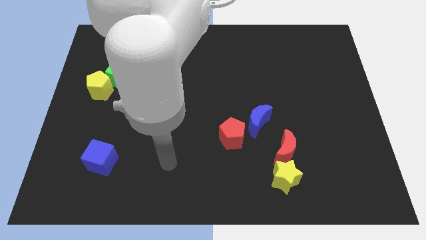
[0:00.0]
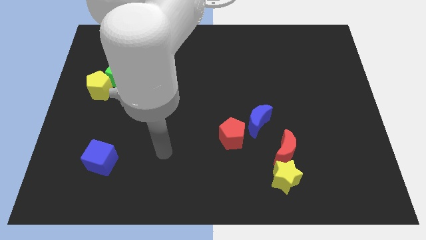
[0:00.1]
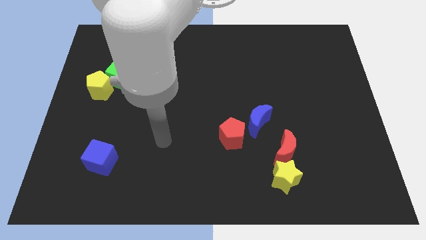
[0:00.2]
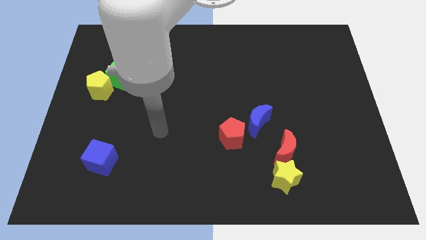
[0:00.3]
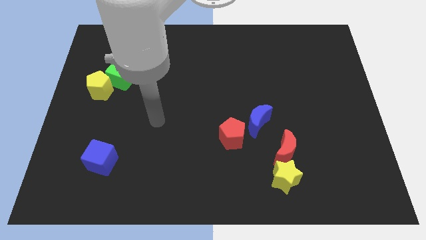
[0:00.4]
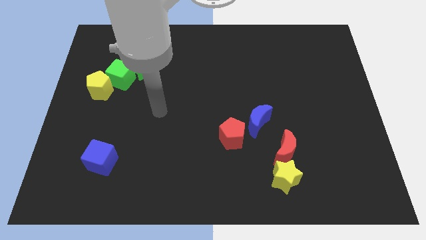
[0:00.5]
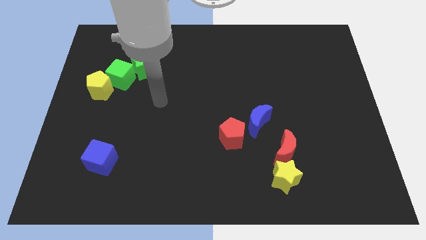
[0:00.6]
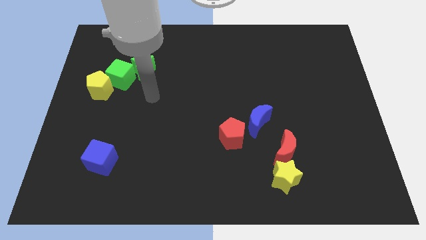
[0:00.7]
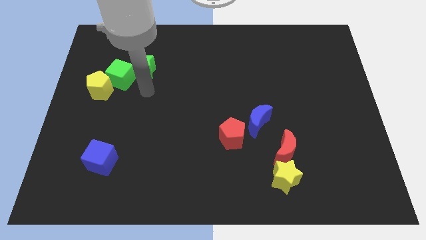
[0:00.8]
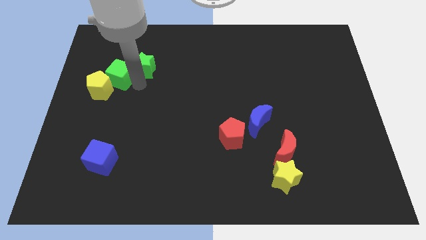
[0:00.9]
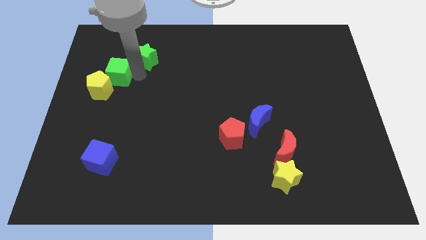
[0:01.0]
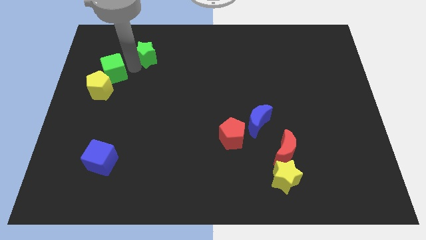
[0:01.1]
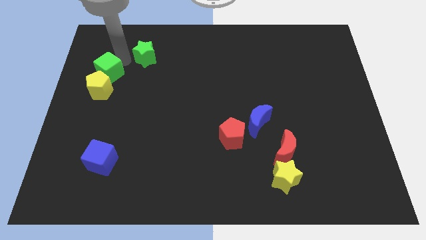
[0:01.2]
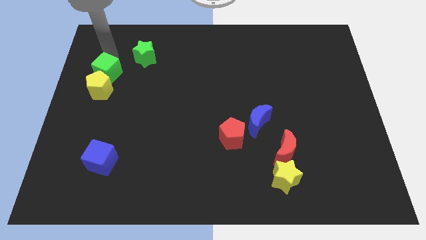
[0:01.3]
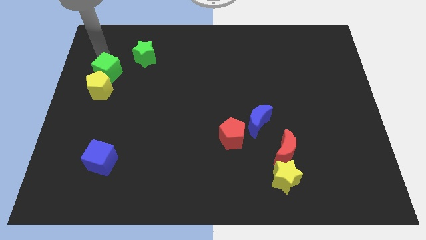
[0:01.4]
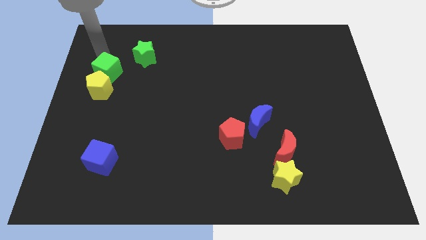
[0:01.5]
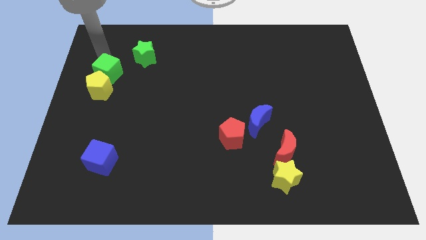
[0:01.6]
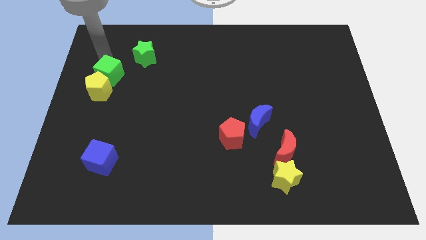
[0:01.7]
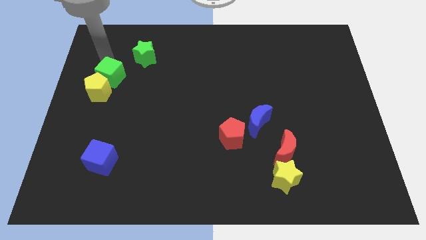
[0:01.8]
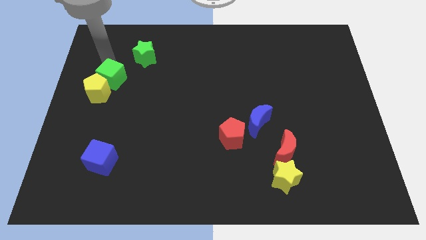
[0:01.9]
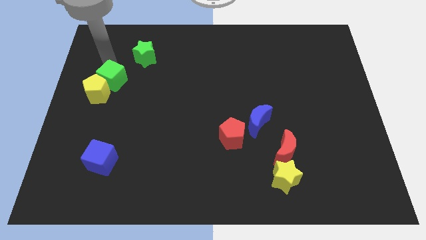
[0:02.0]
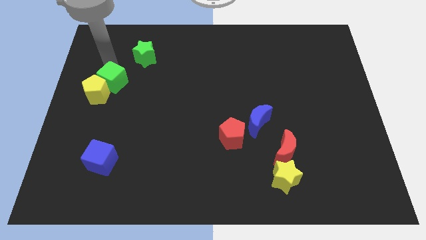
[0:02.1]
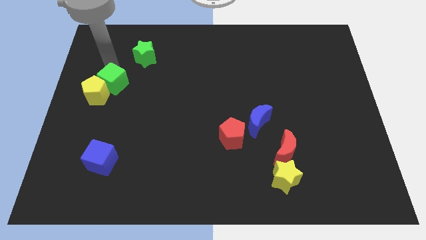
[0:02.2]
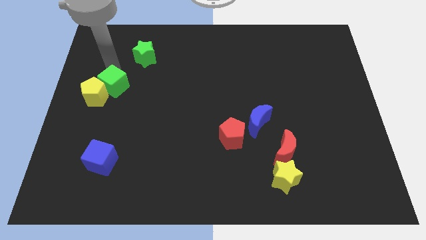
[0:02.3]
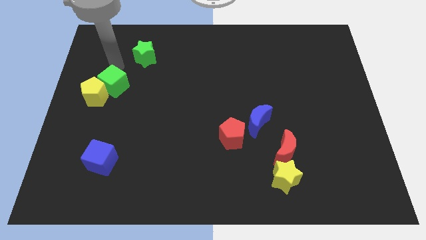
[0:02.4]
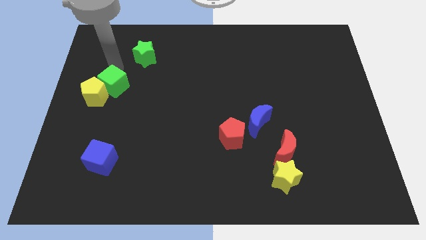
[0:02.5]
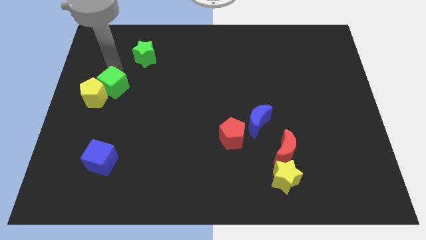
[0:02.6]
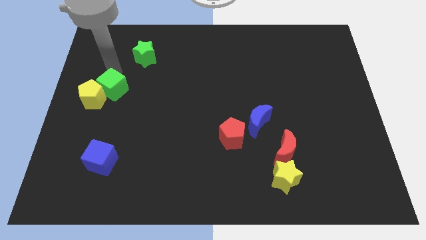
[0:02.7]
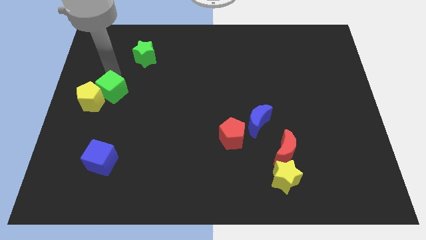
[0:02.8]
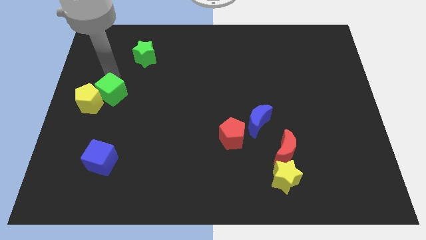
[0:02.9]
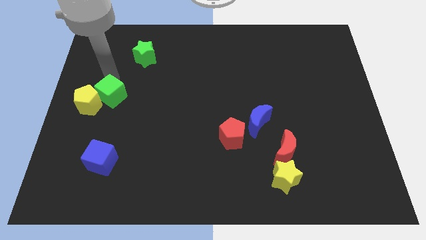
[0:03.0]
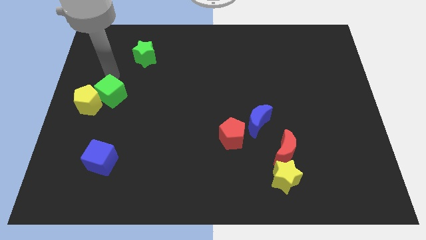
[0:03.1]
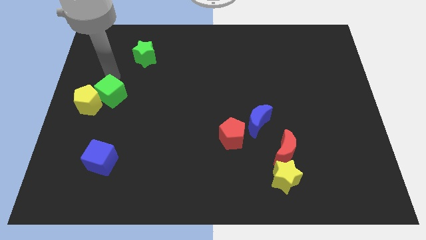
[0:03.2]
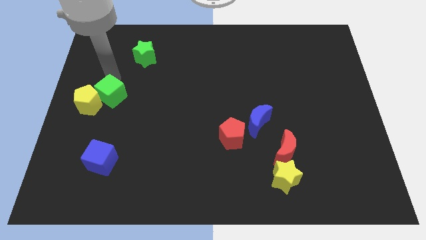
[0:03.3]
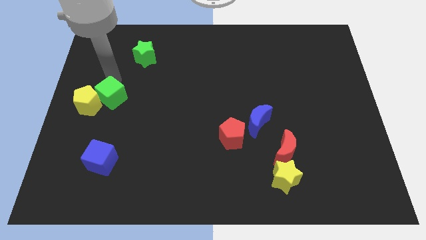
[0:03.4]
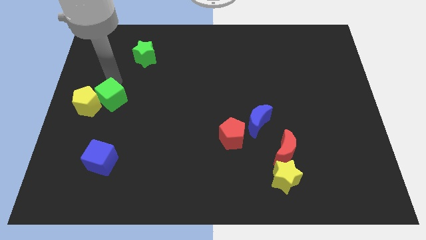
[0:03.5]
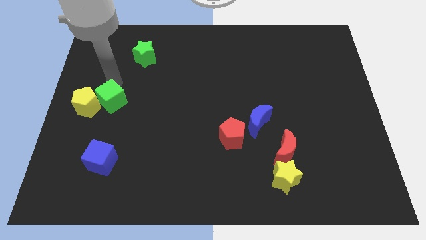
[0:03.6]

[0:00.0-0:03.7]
move the green cube down somewhat

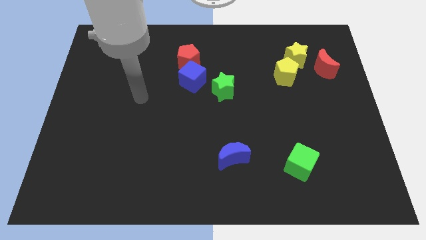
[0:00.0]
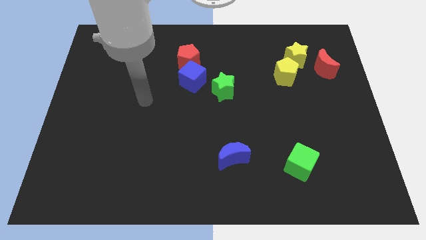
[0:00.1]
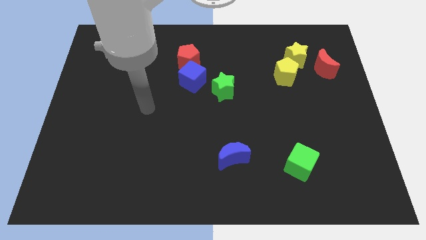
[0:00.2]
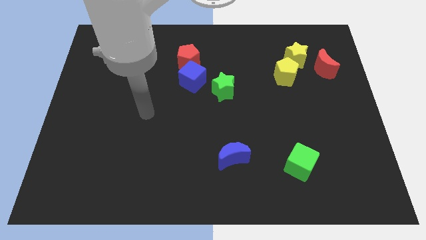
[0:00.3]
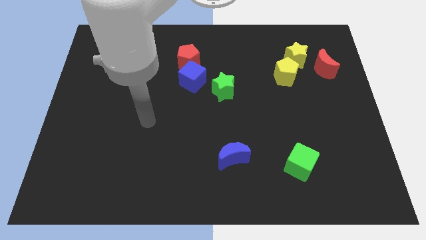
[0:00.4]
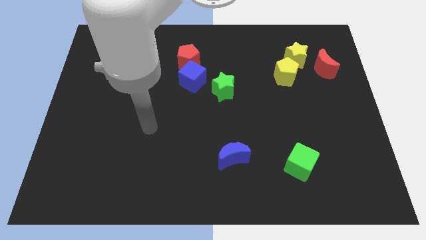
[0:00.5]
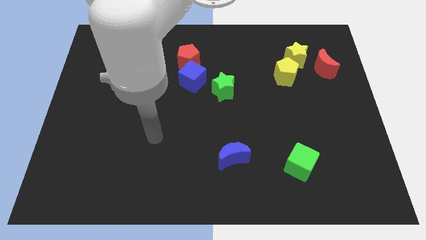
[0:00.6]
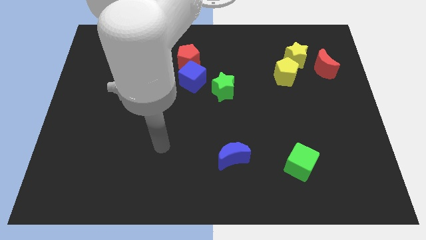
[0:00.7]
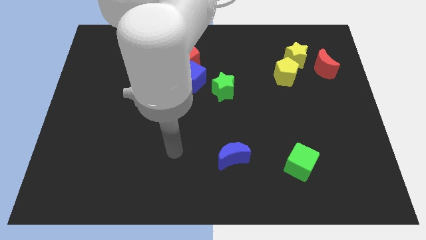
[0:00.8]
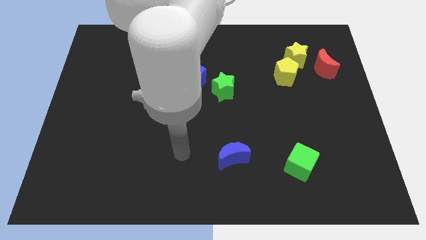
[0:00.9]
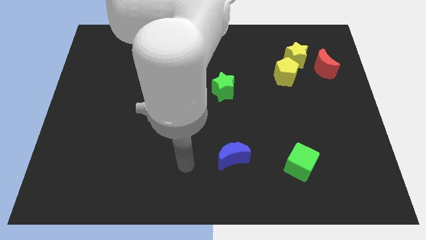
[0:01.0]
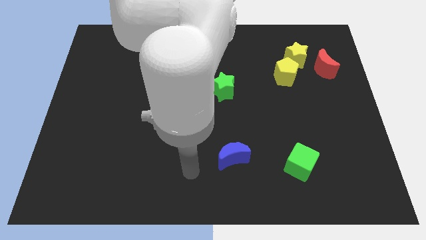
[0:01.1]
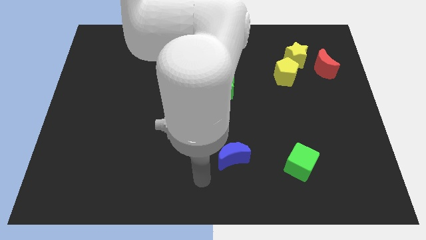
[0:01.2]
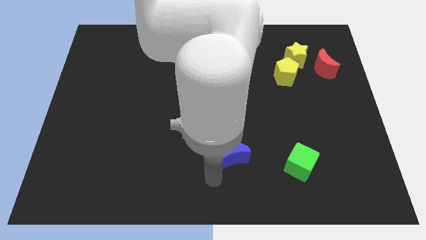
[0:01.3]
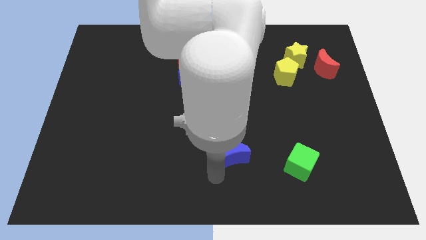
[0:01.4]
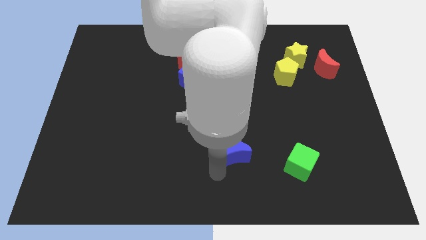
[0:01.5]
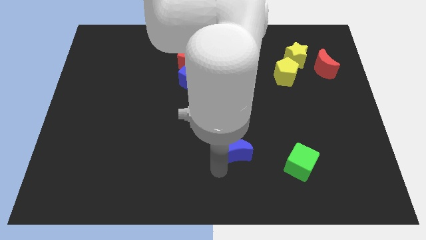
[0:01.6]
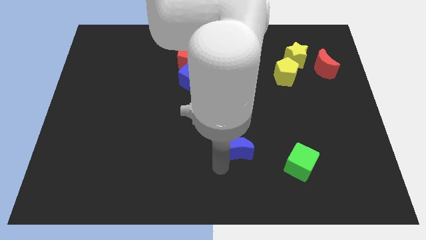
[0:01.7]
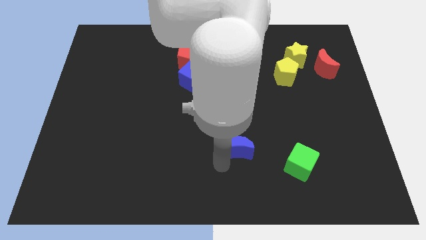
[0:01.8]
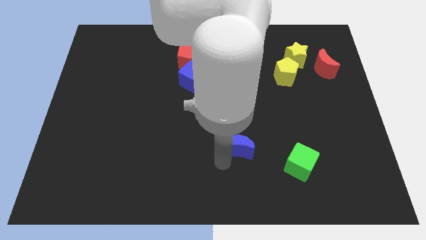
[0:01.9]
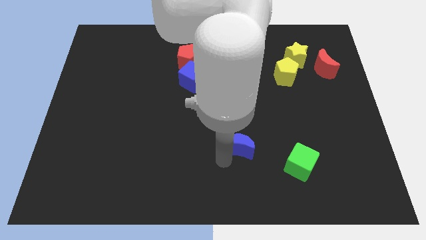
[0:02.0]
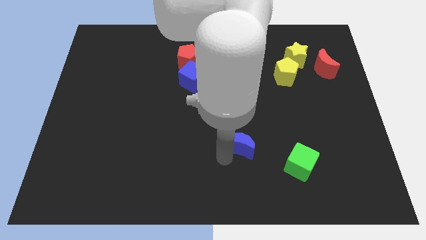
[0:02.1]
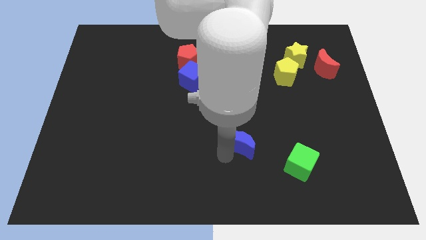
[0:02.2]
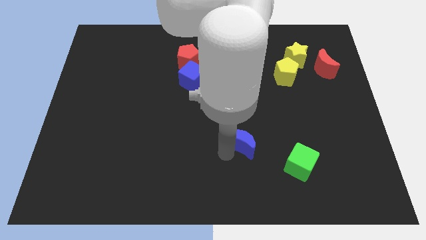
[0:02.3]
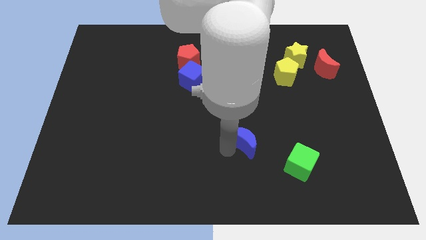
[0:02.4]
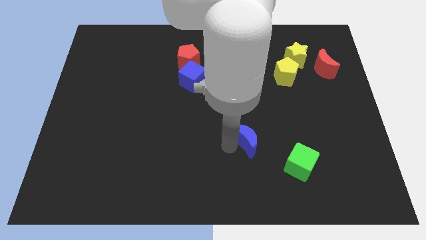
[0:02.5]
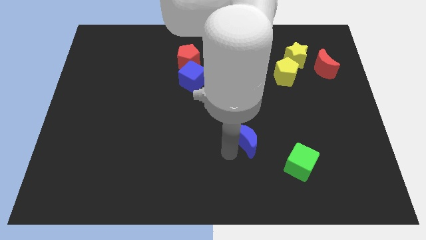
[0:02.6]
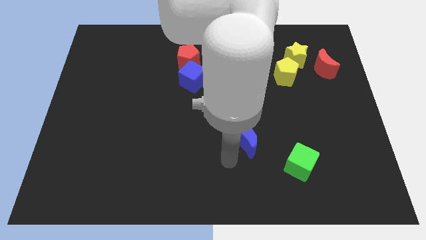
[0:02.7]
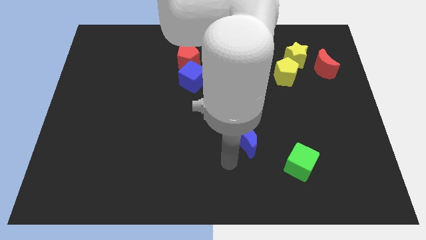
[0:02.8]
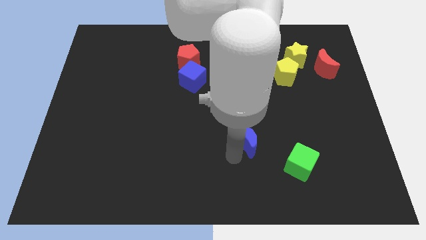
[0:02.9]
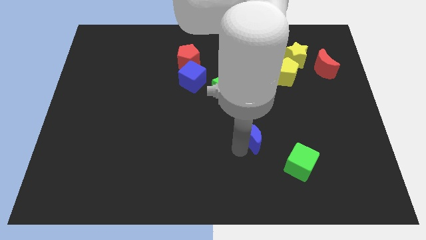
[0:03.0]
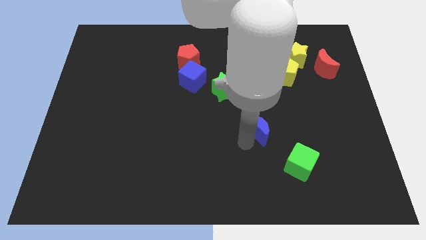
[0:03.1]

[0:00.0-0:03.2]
slightly slide the blue moon up and to the right diagonally

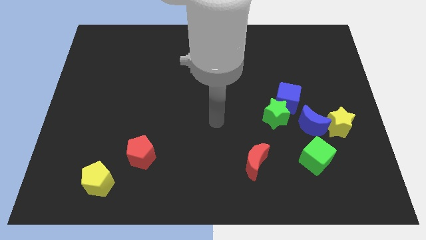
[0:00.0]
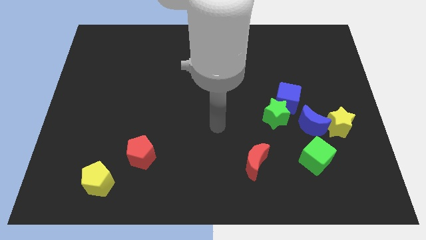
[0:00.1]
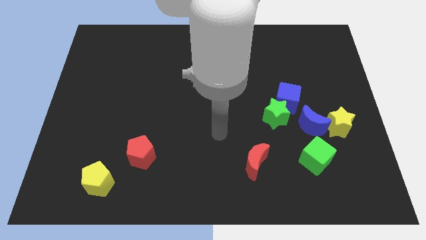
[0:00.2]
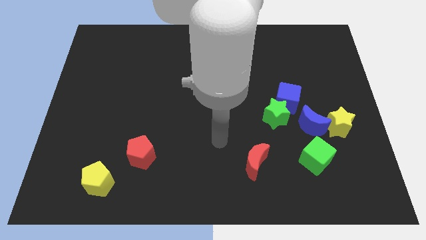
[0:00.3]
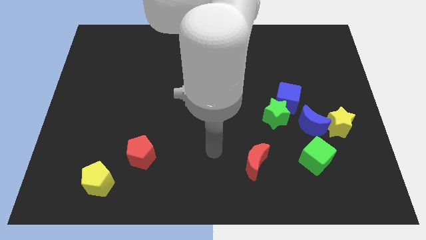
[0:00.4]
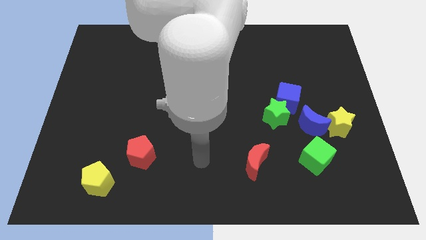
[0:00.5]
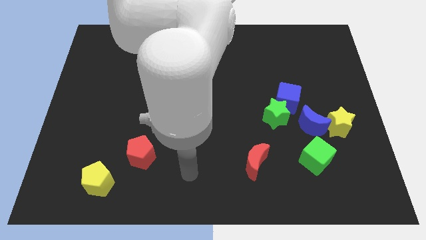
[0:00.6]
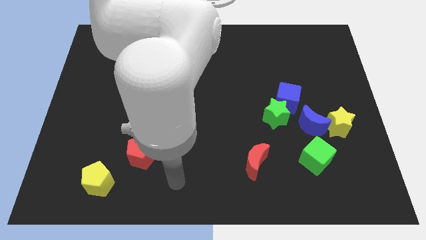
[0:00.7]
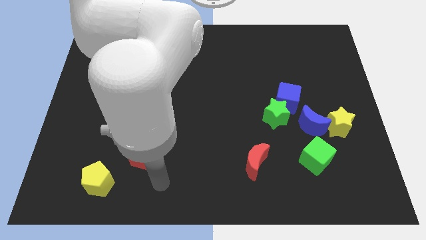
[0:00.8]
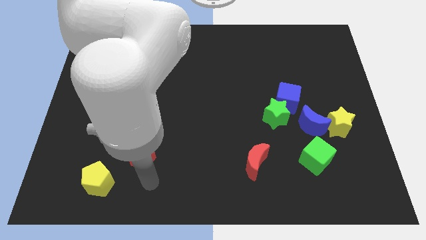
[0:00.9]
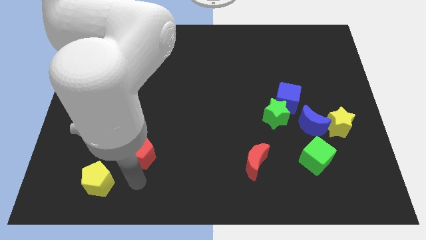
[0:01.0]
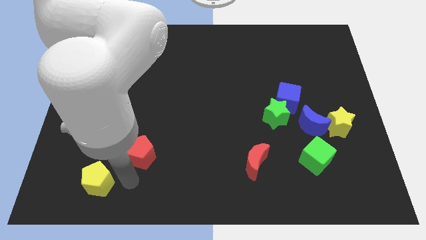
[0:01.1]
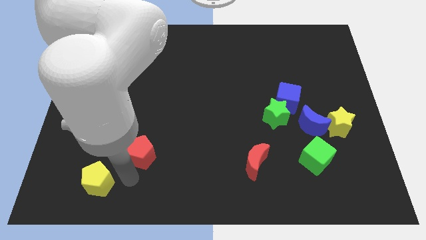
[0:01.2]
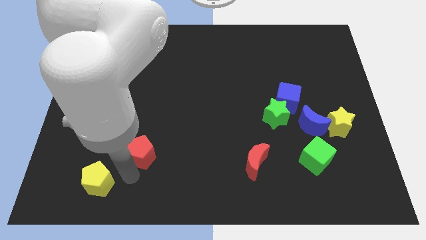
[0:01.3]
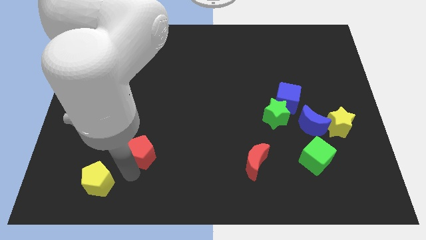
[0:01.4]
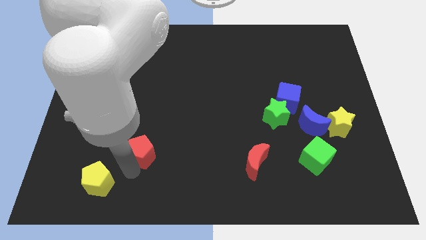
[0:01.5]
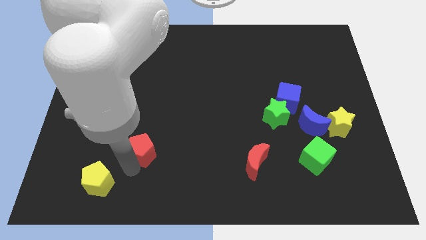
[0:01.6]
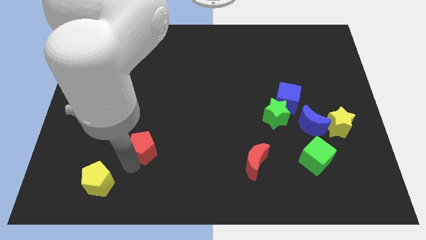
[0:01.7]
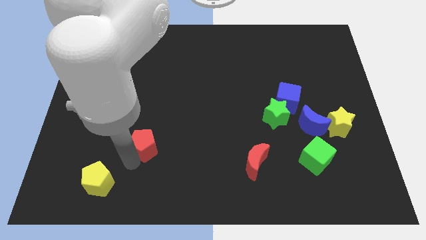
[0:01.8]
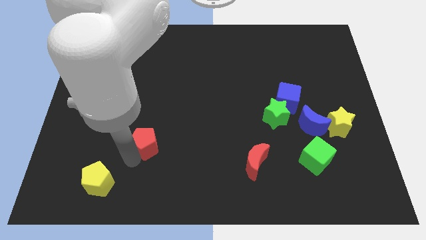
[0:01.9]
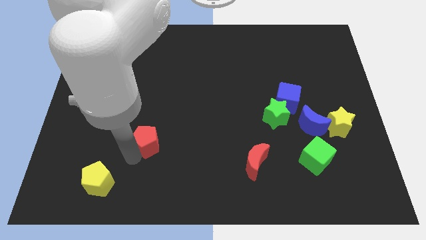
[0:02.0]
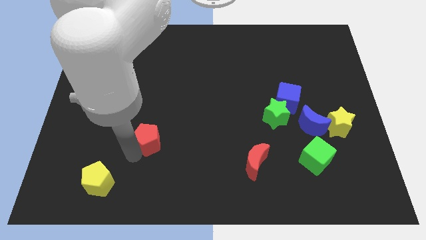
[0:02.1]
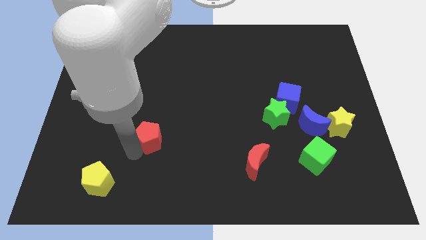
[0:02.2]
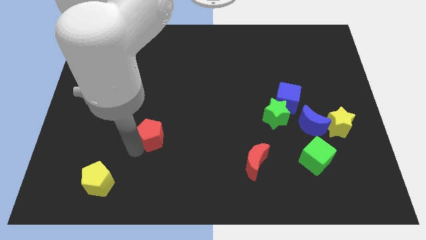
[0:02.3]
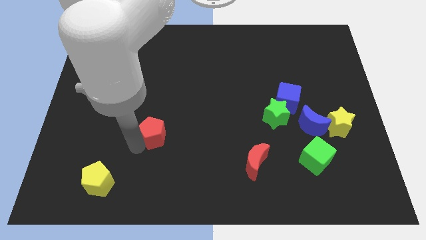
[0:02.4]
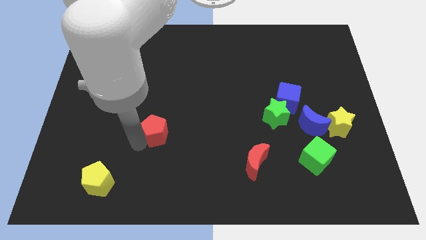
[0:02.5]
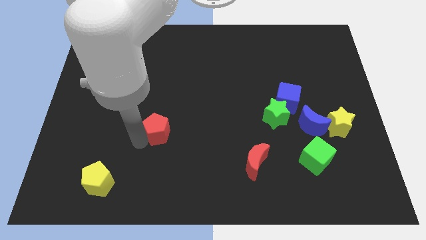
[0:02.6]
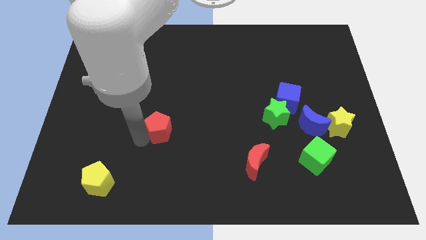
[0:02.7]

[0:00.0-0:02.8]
push the red pentagon slightly up and then to the right
